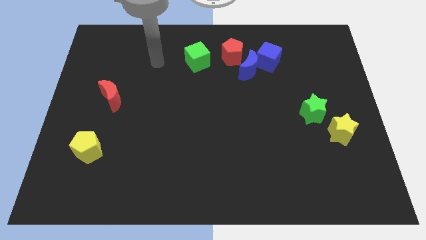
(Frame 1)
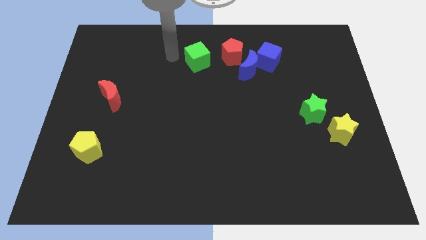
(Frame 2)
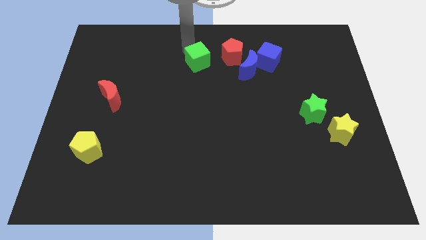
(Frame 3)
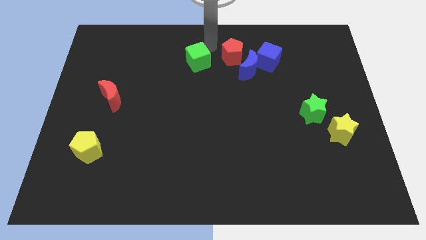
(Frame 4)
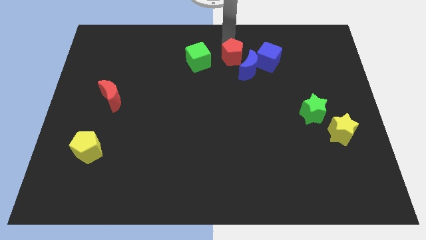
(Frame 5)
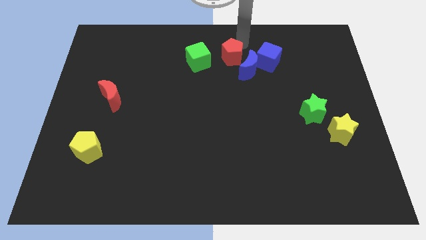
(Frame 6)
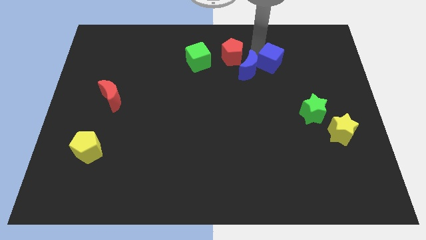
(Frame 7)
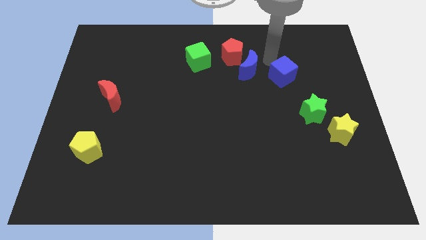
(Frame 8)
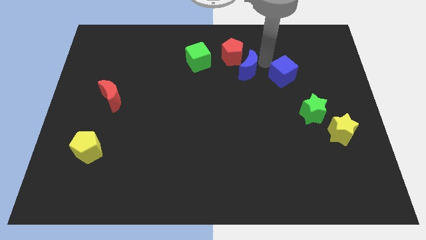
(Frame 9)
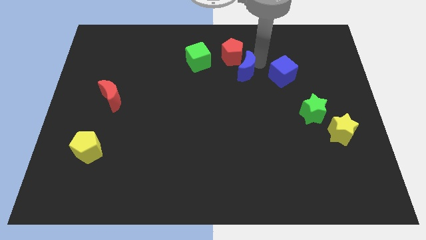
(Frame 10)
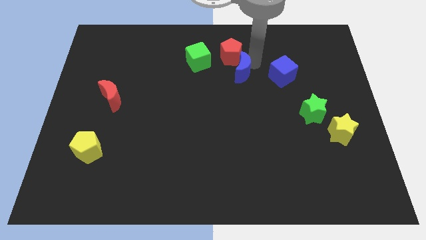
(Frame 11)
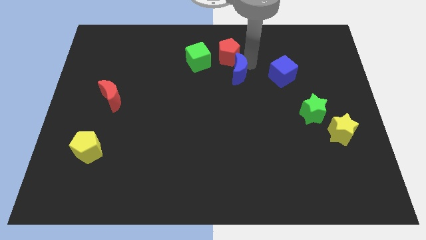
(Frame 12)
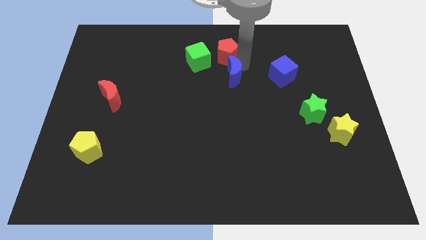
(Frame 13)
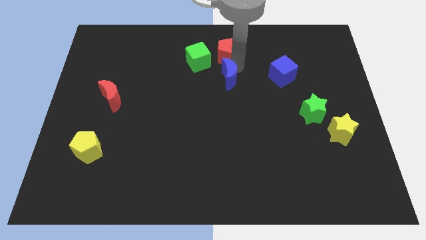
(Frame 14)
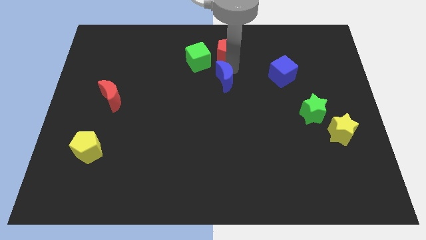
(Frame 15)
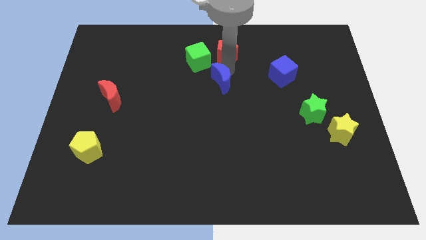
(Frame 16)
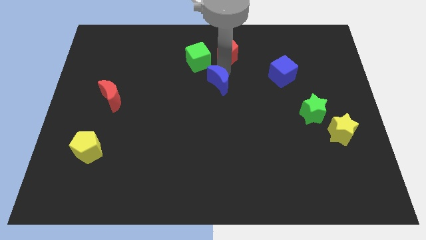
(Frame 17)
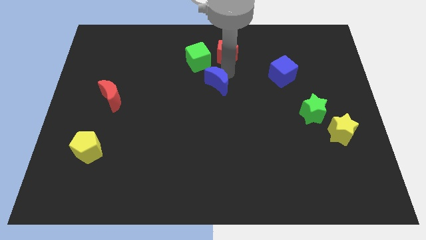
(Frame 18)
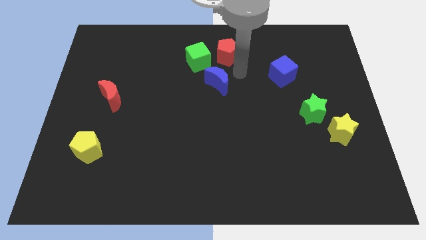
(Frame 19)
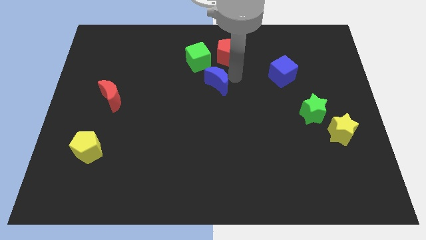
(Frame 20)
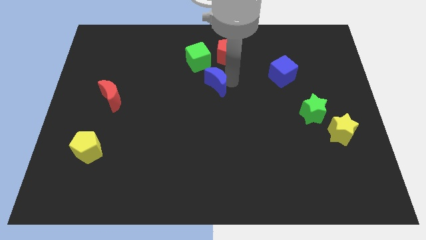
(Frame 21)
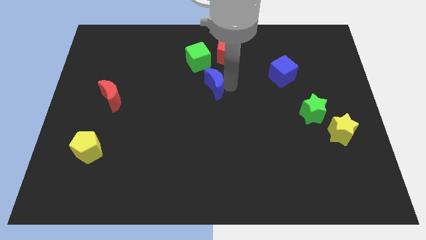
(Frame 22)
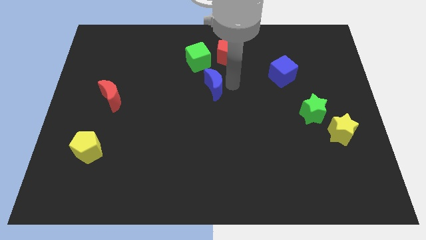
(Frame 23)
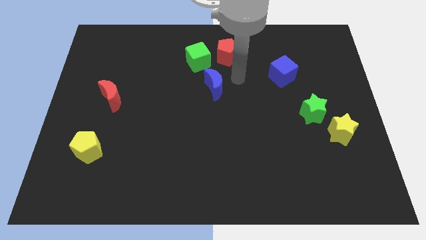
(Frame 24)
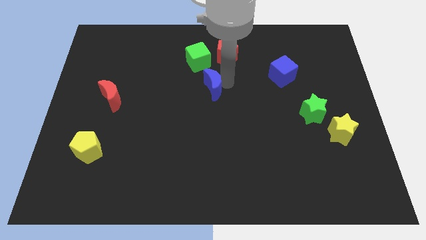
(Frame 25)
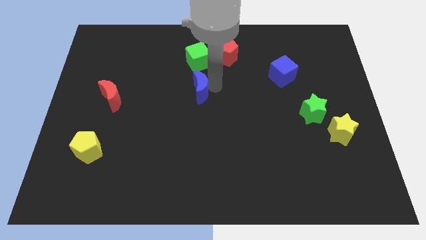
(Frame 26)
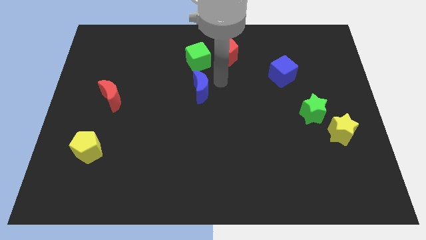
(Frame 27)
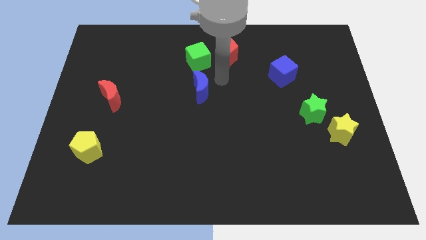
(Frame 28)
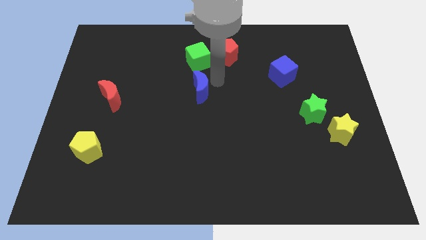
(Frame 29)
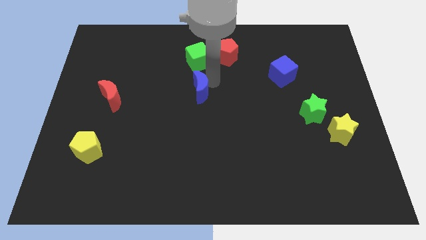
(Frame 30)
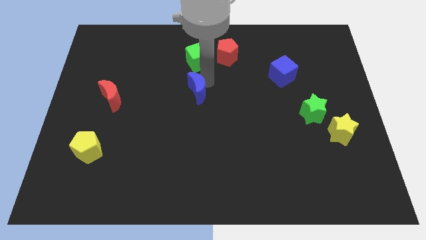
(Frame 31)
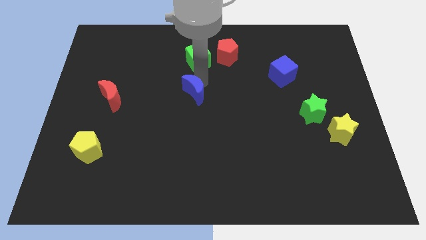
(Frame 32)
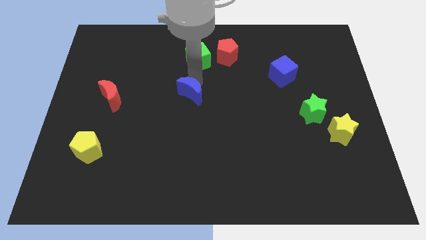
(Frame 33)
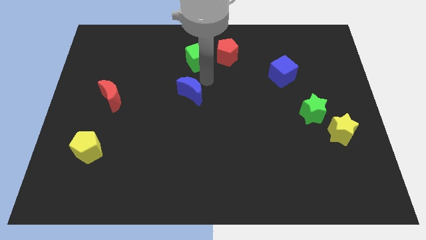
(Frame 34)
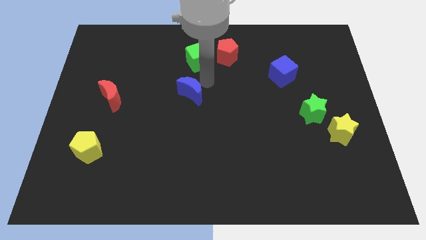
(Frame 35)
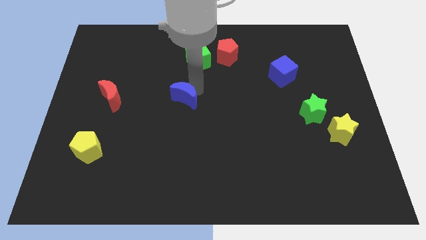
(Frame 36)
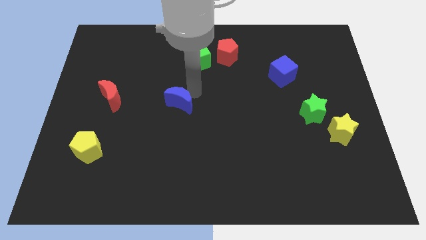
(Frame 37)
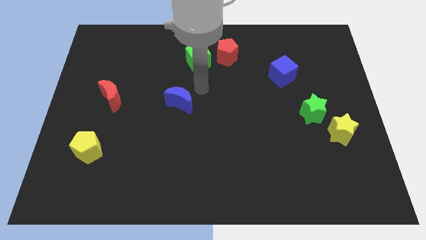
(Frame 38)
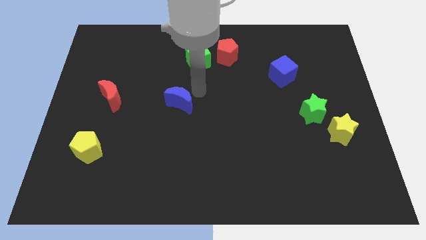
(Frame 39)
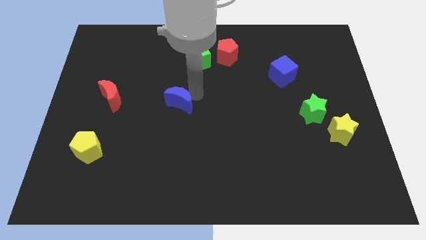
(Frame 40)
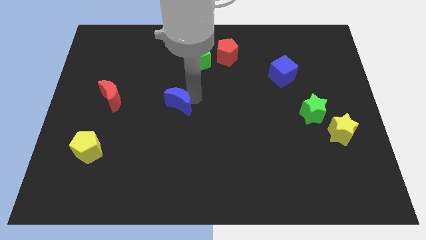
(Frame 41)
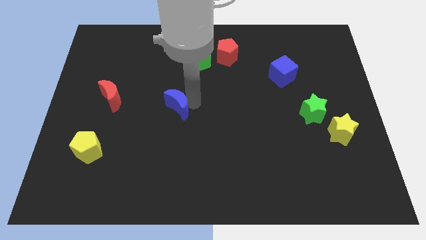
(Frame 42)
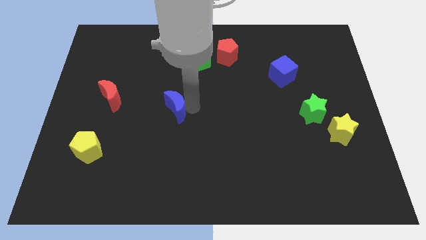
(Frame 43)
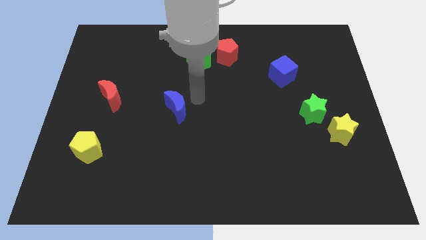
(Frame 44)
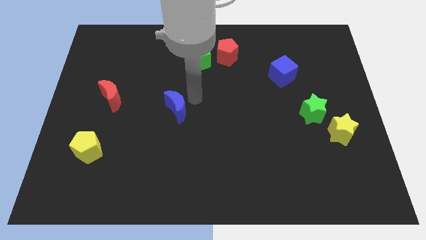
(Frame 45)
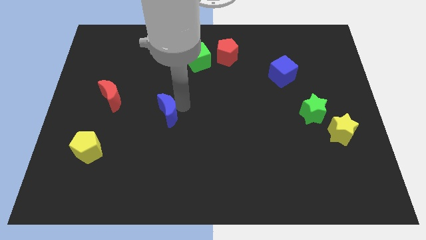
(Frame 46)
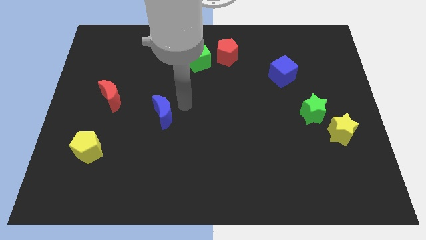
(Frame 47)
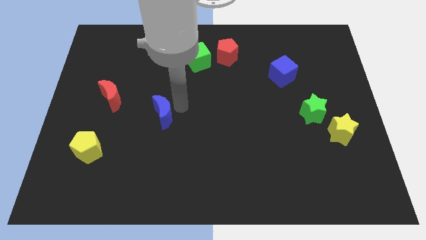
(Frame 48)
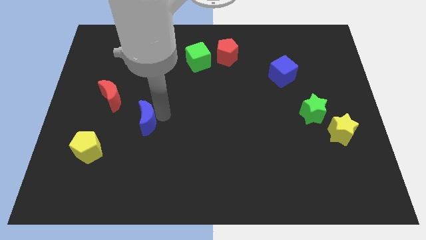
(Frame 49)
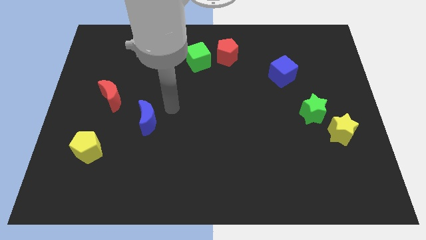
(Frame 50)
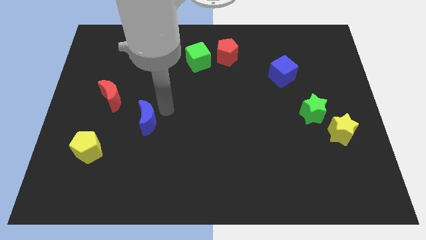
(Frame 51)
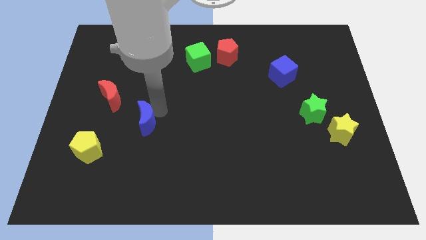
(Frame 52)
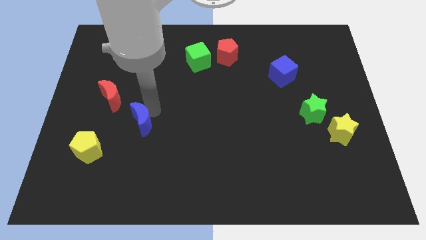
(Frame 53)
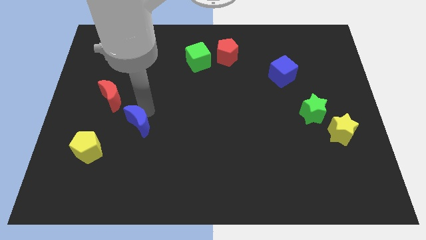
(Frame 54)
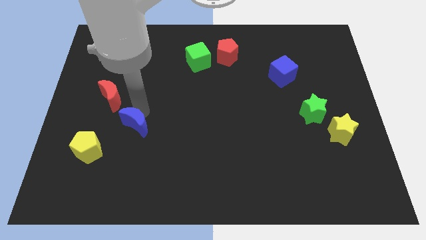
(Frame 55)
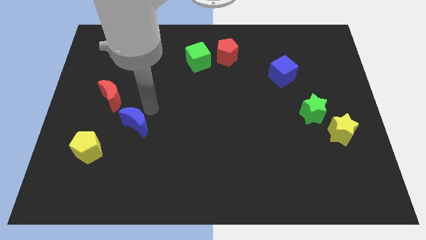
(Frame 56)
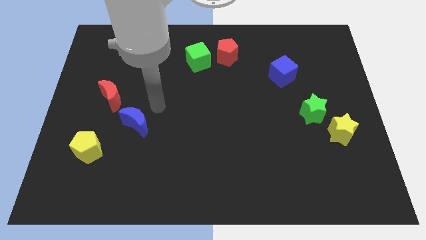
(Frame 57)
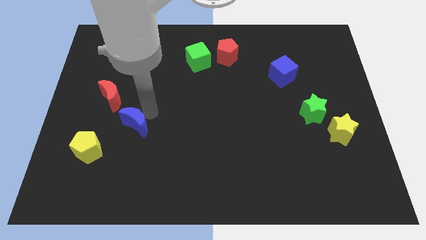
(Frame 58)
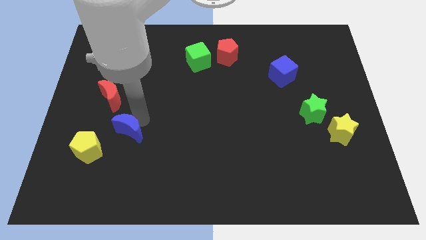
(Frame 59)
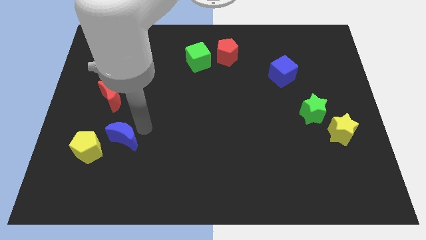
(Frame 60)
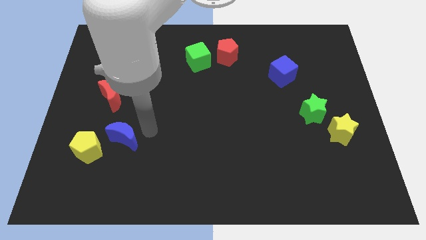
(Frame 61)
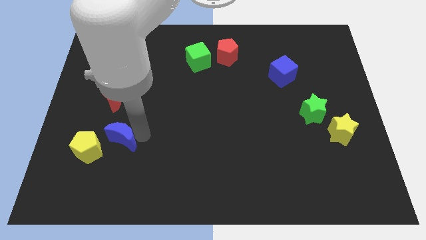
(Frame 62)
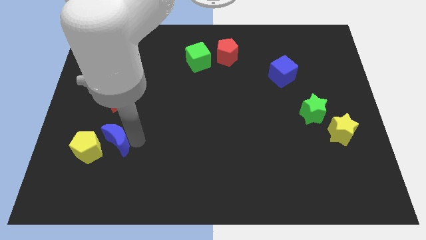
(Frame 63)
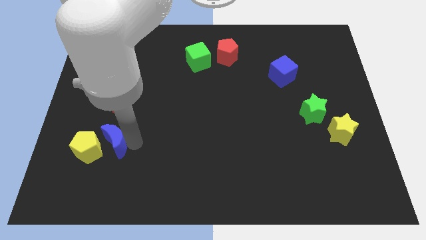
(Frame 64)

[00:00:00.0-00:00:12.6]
put the blue moon to the yellow pentagon

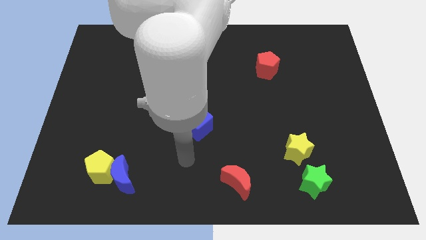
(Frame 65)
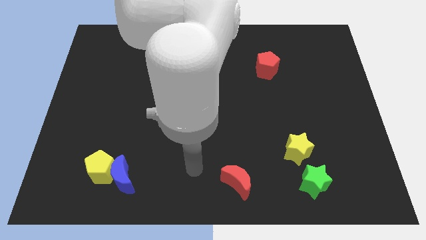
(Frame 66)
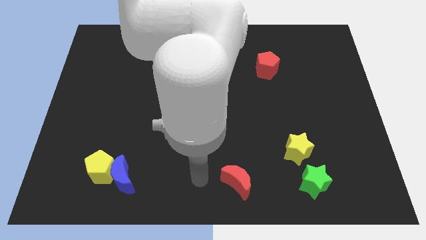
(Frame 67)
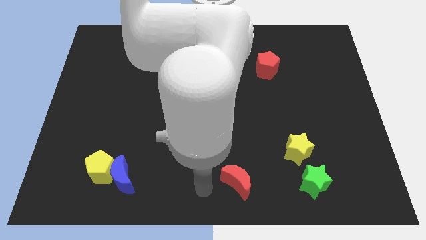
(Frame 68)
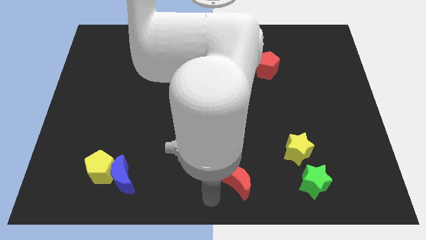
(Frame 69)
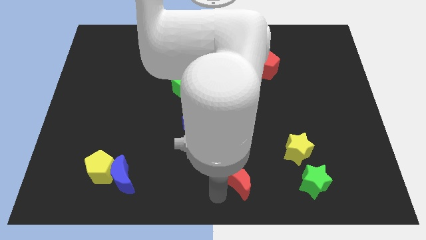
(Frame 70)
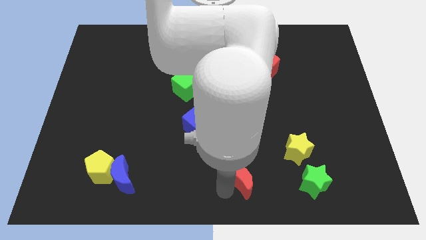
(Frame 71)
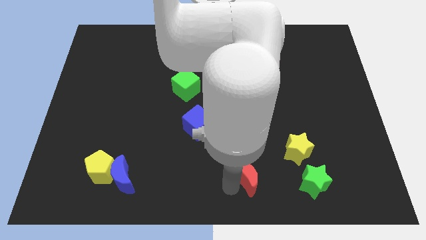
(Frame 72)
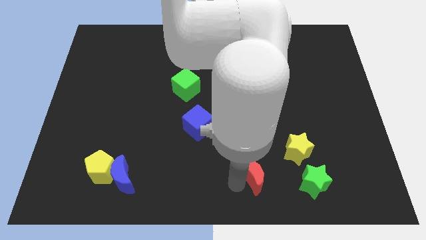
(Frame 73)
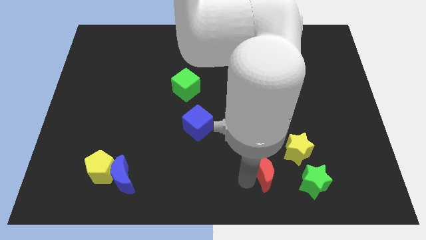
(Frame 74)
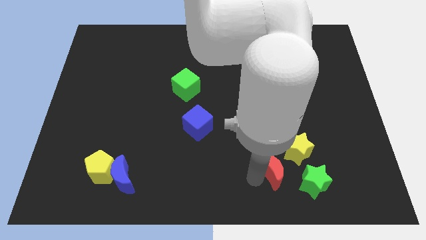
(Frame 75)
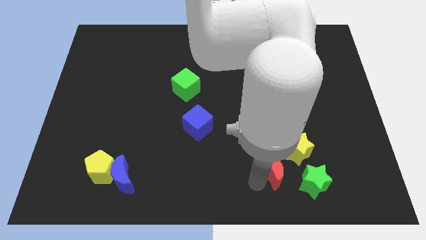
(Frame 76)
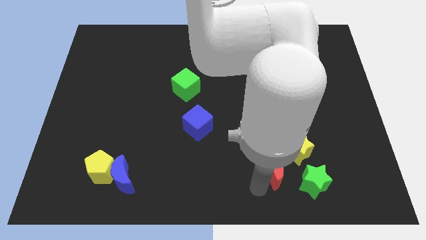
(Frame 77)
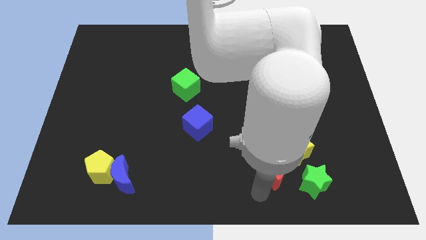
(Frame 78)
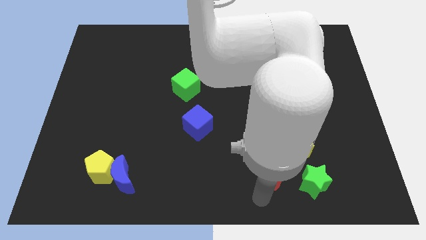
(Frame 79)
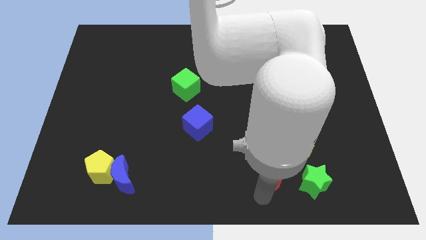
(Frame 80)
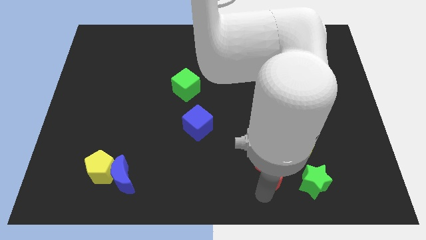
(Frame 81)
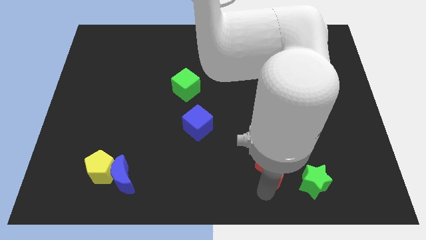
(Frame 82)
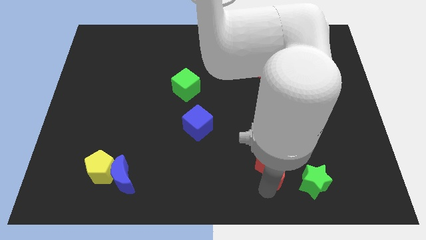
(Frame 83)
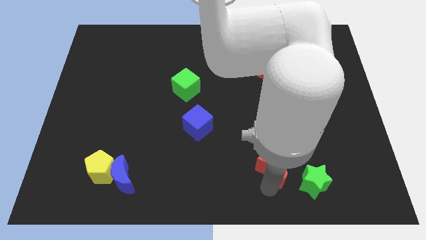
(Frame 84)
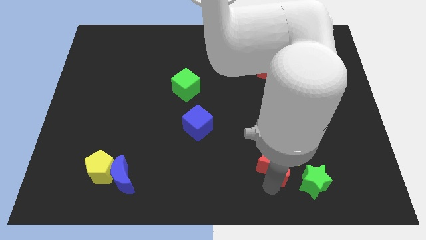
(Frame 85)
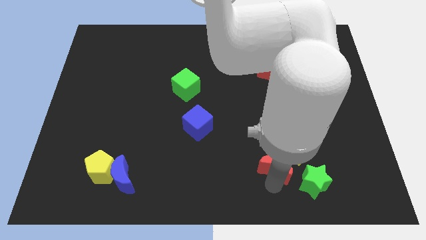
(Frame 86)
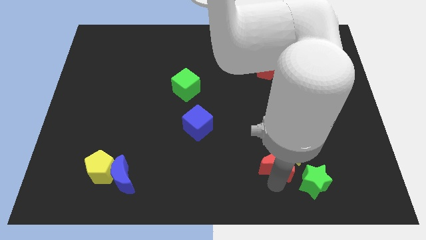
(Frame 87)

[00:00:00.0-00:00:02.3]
slide the red moon to the yellow star
